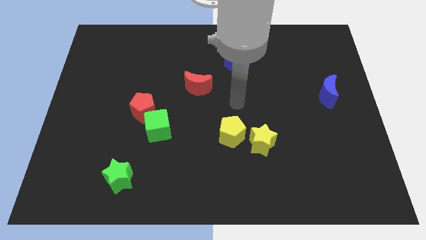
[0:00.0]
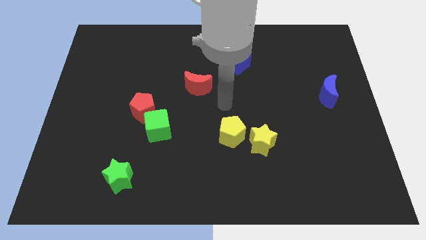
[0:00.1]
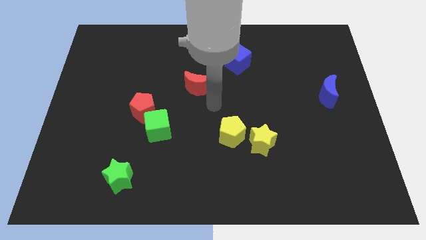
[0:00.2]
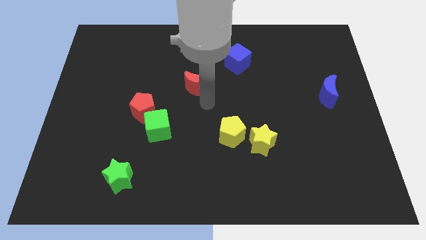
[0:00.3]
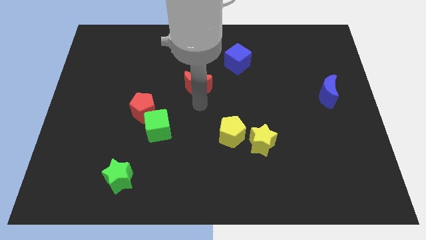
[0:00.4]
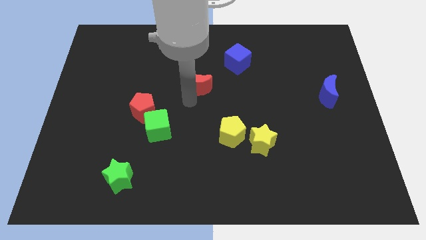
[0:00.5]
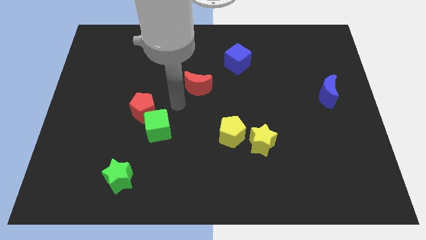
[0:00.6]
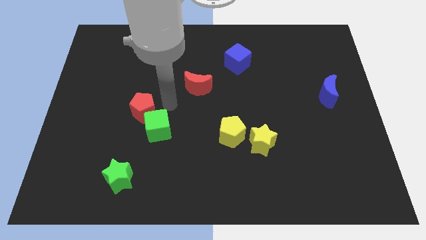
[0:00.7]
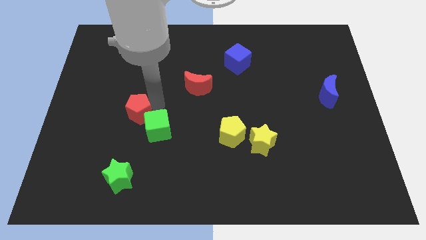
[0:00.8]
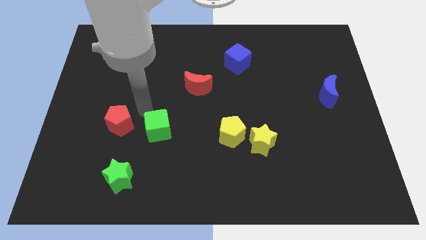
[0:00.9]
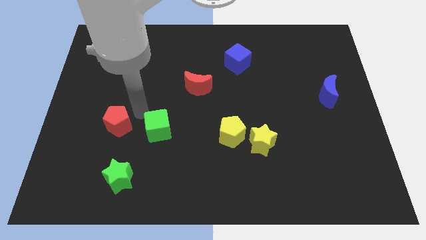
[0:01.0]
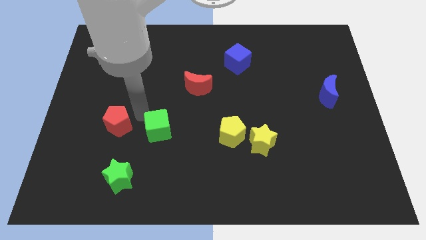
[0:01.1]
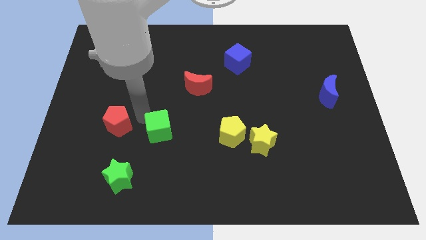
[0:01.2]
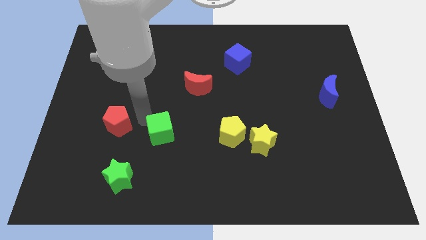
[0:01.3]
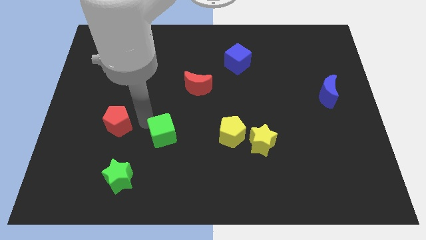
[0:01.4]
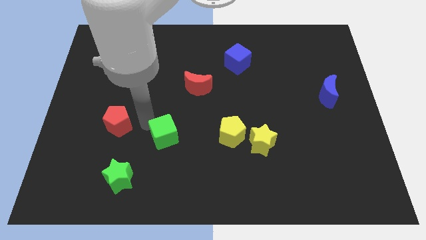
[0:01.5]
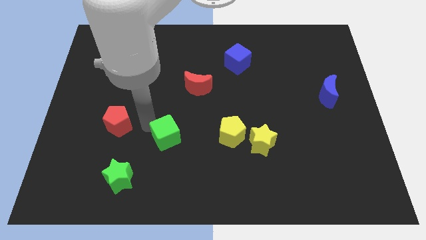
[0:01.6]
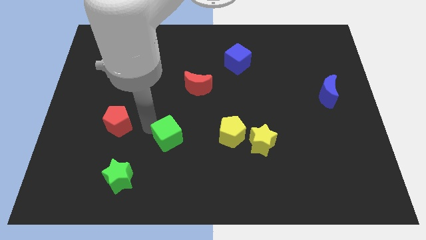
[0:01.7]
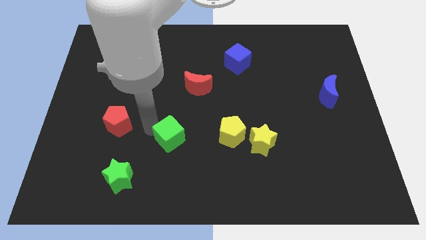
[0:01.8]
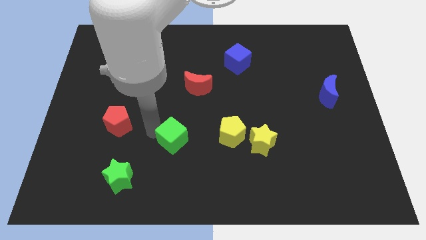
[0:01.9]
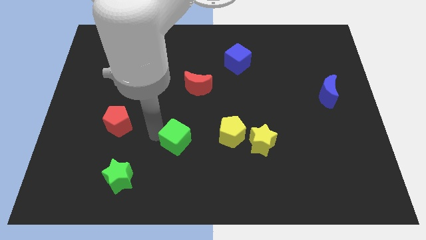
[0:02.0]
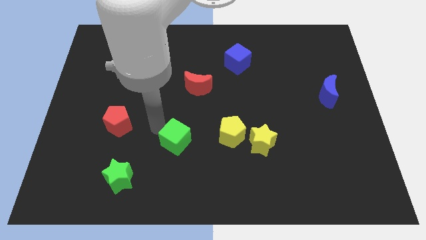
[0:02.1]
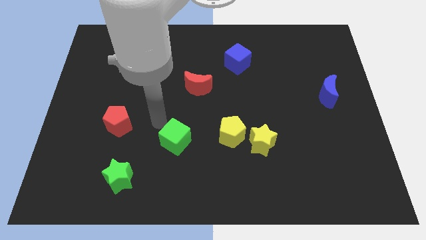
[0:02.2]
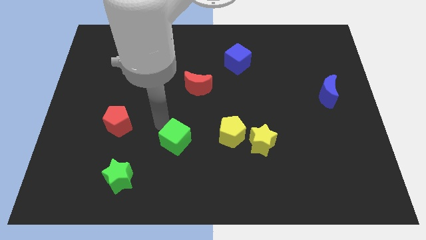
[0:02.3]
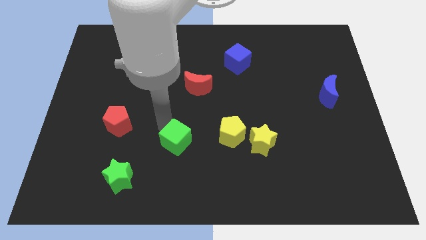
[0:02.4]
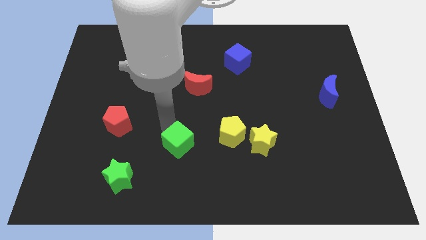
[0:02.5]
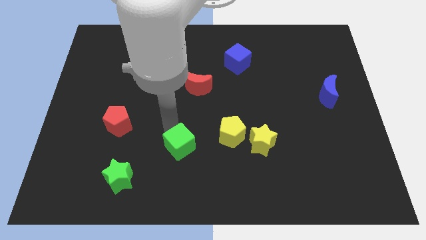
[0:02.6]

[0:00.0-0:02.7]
slide the green cube somewhat down and then right

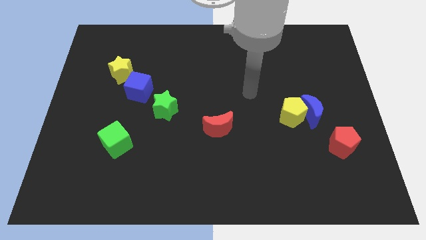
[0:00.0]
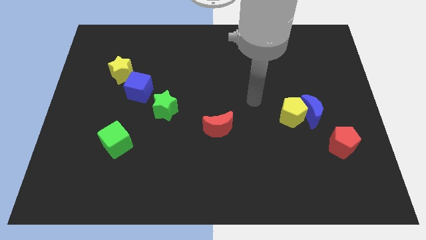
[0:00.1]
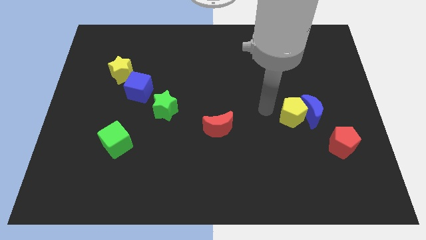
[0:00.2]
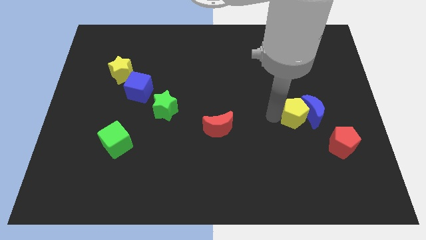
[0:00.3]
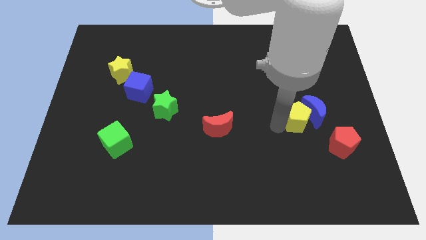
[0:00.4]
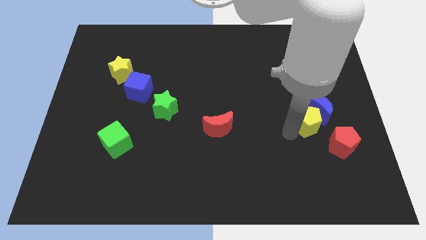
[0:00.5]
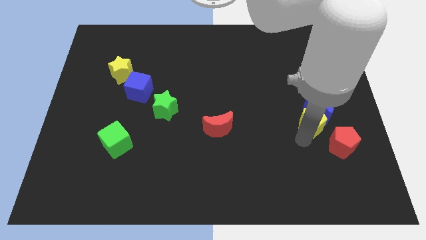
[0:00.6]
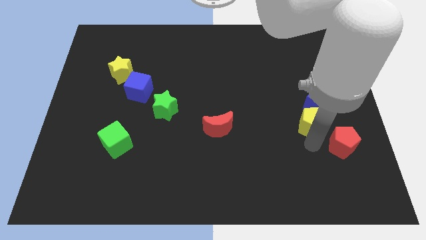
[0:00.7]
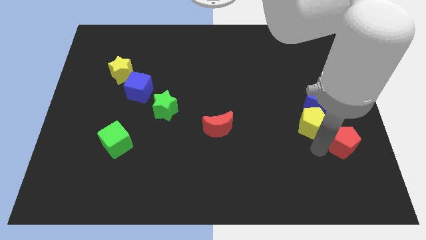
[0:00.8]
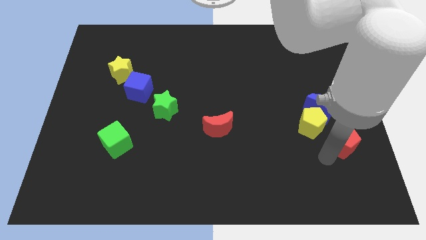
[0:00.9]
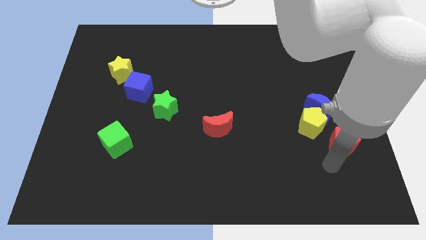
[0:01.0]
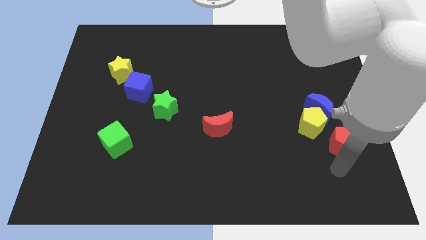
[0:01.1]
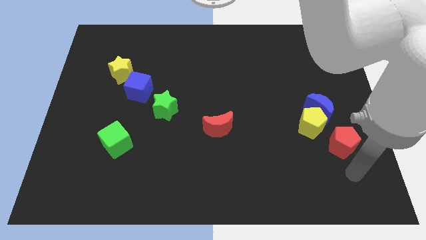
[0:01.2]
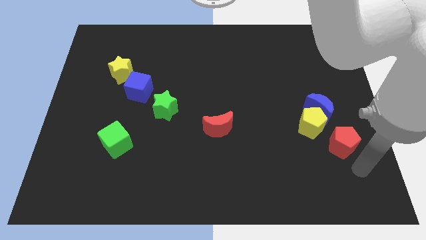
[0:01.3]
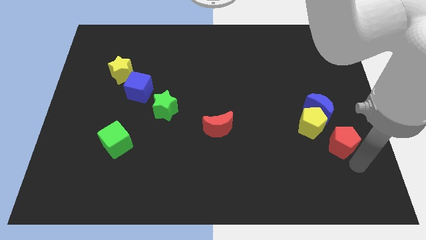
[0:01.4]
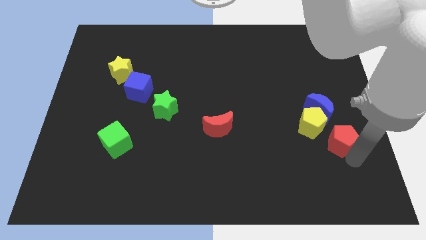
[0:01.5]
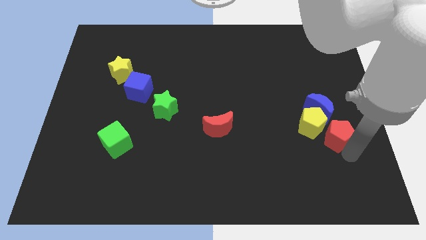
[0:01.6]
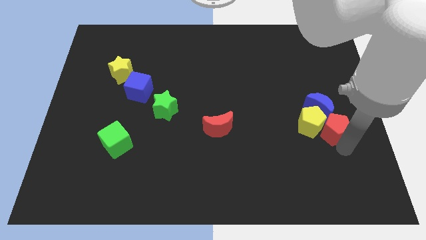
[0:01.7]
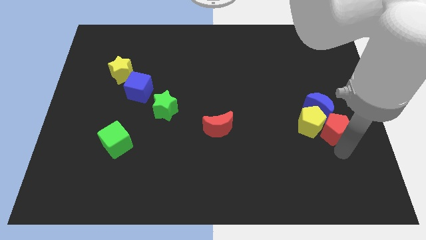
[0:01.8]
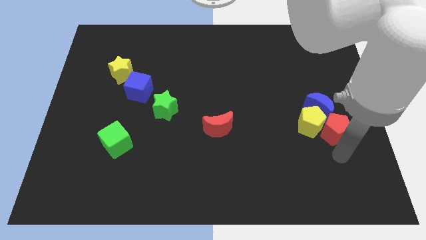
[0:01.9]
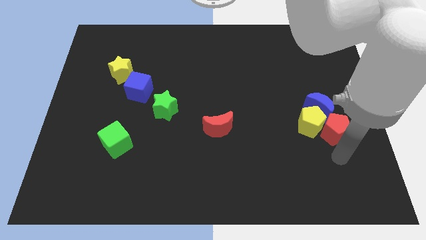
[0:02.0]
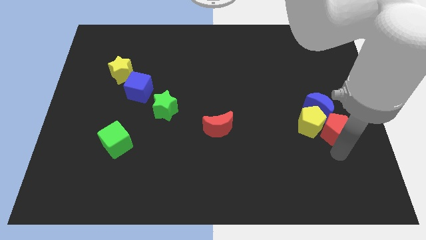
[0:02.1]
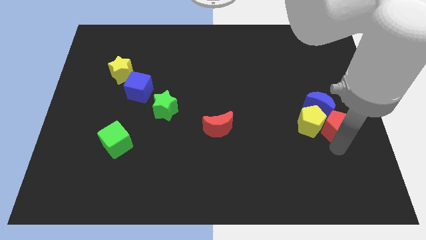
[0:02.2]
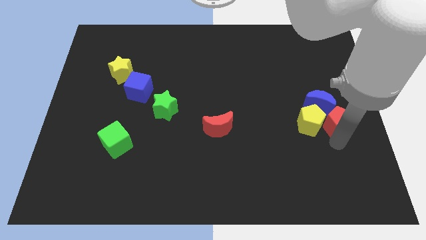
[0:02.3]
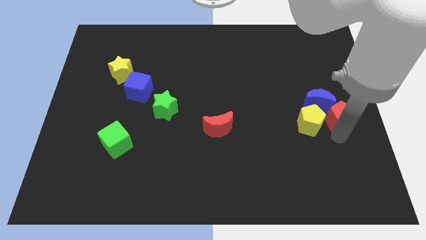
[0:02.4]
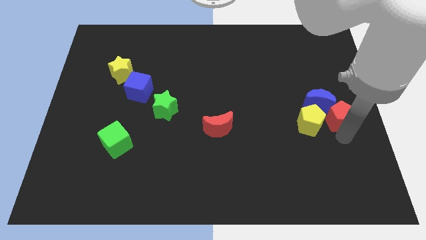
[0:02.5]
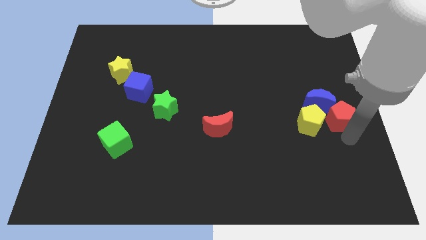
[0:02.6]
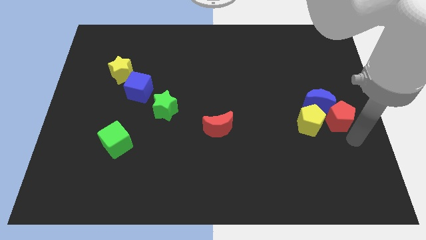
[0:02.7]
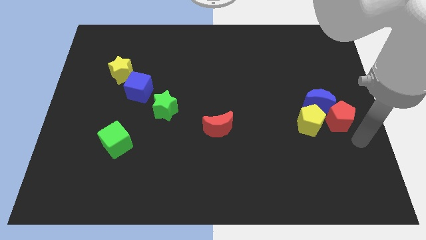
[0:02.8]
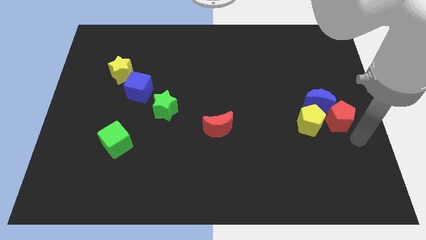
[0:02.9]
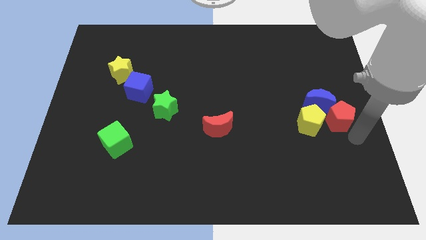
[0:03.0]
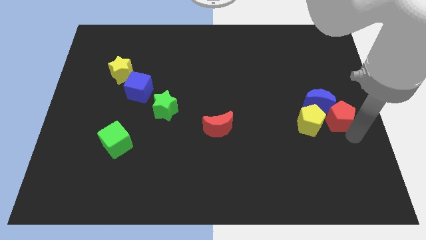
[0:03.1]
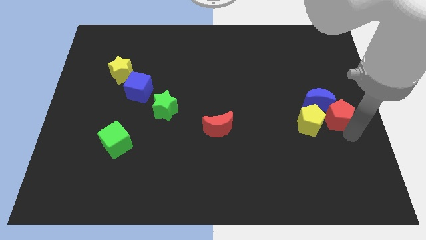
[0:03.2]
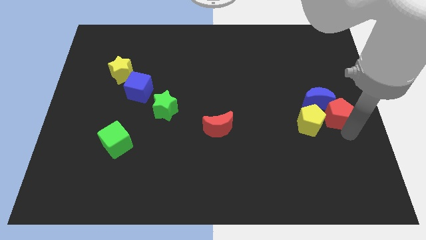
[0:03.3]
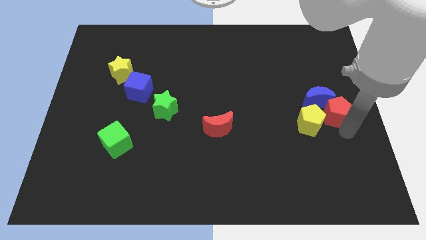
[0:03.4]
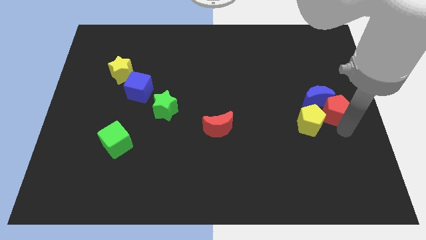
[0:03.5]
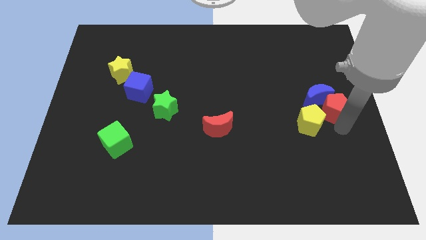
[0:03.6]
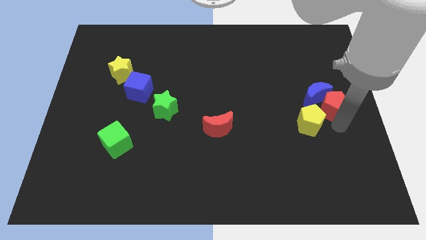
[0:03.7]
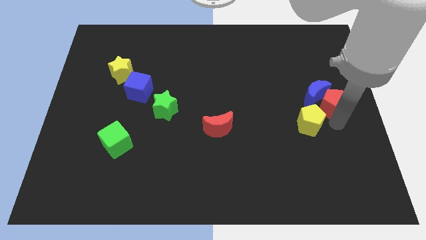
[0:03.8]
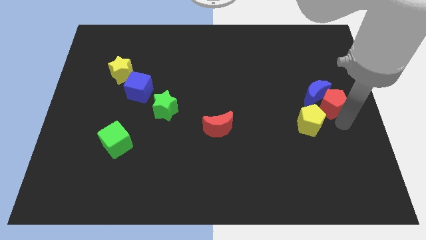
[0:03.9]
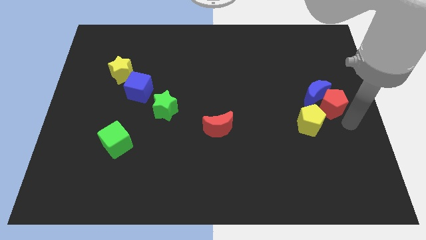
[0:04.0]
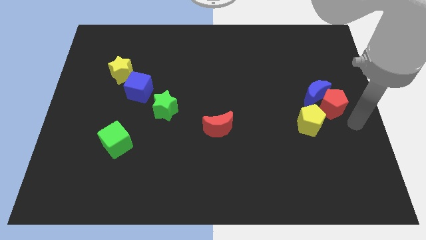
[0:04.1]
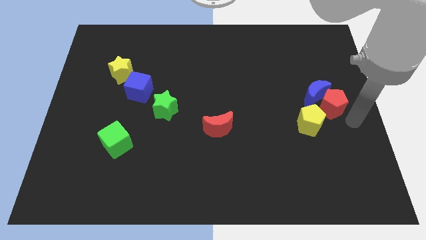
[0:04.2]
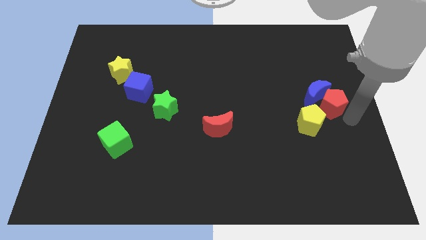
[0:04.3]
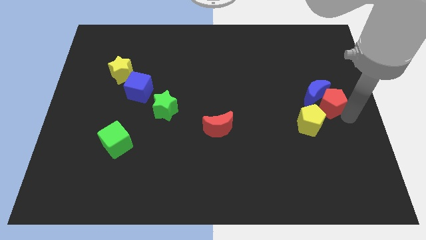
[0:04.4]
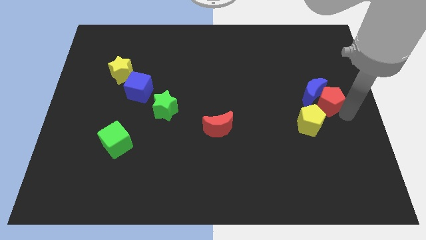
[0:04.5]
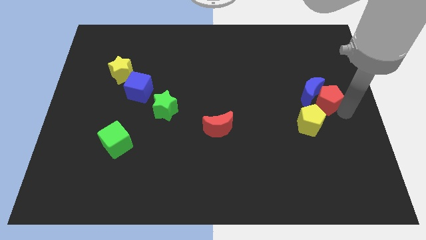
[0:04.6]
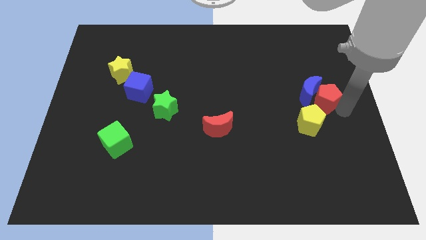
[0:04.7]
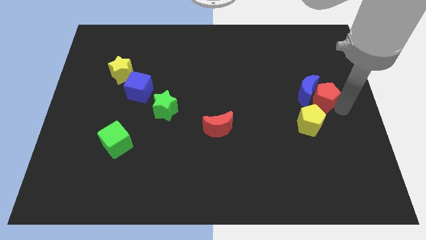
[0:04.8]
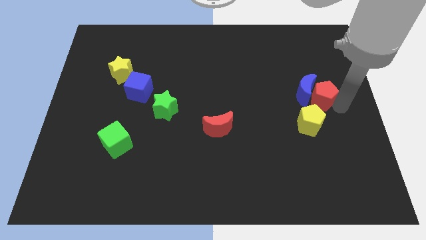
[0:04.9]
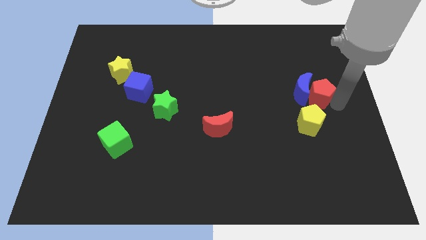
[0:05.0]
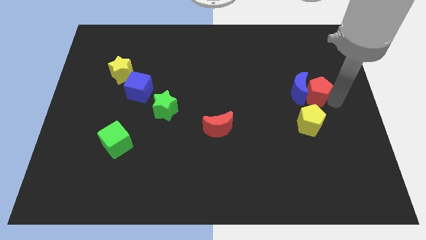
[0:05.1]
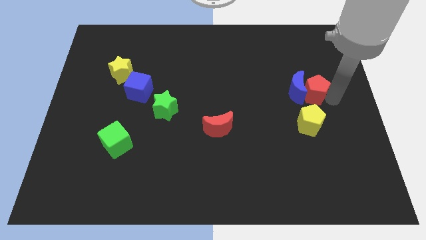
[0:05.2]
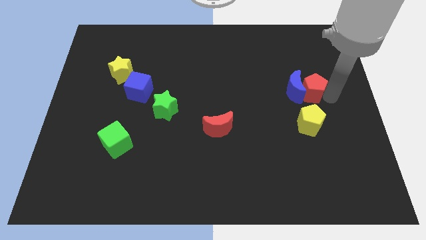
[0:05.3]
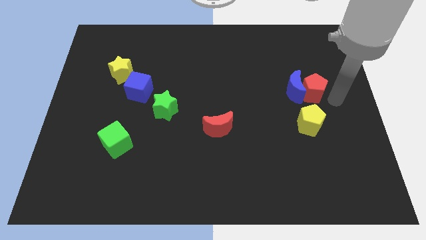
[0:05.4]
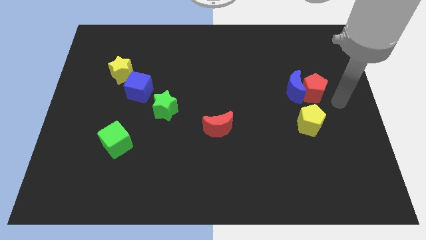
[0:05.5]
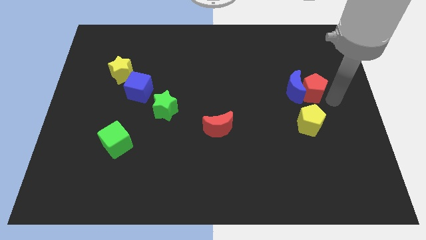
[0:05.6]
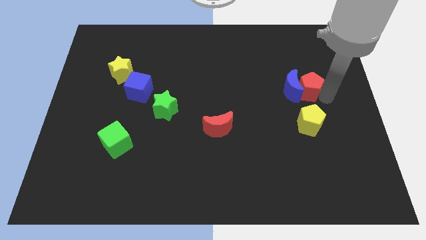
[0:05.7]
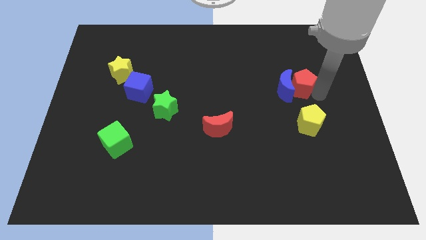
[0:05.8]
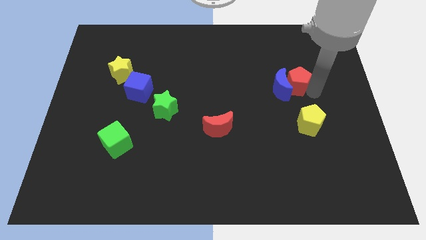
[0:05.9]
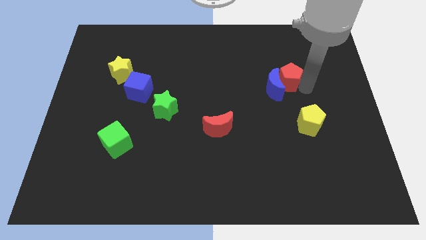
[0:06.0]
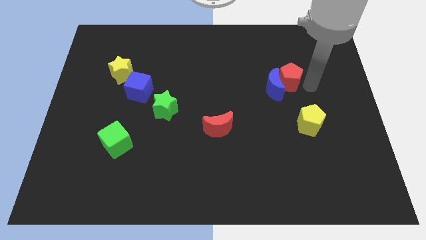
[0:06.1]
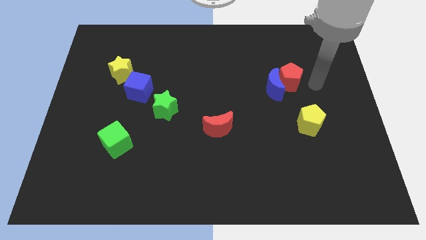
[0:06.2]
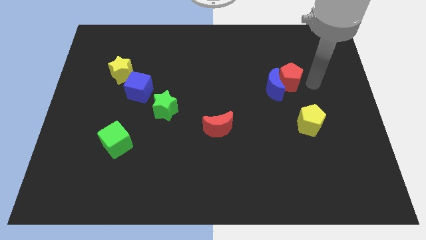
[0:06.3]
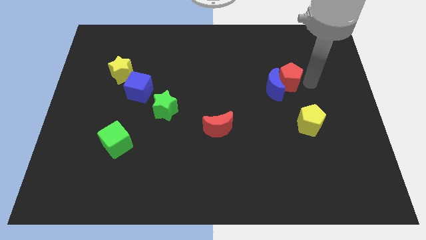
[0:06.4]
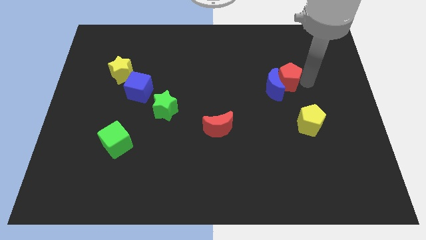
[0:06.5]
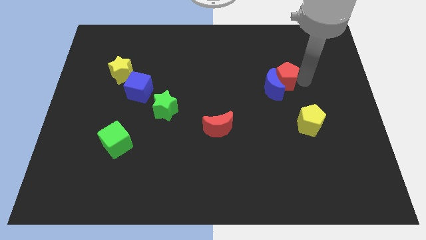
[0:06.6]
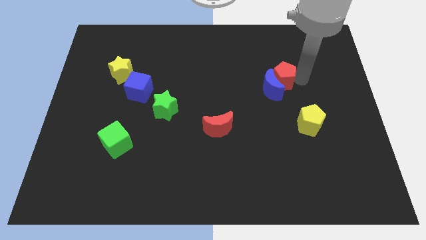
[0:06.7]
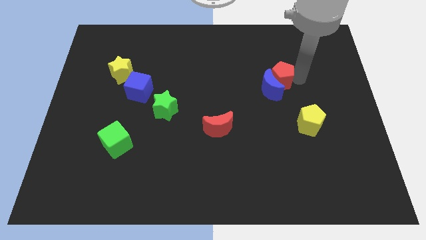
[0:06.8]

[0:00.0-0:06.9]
push the red pentagon diagonally upwards and left
